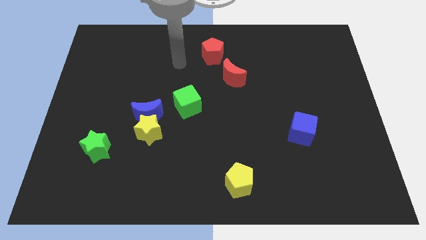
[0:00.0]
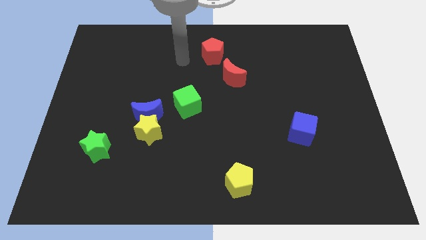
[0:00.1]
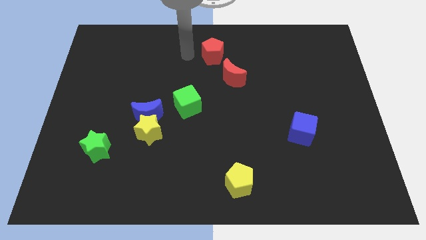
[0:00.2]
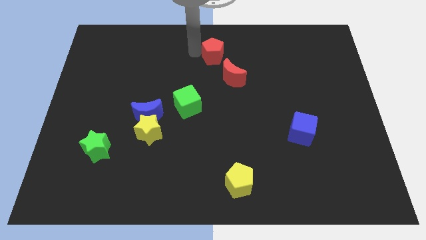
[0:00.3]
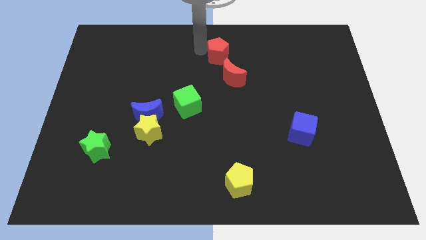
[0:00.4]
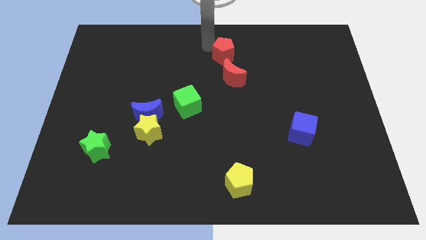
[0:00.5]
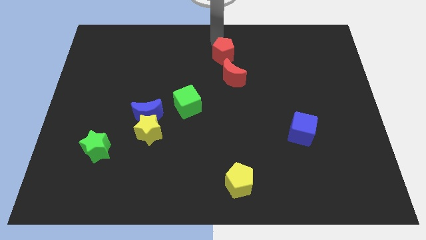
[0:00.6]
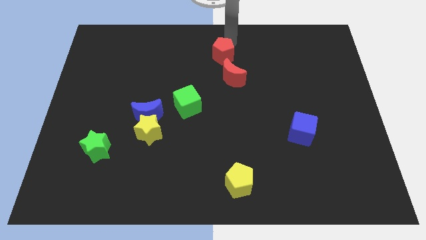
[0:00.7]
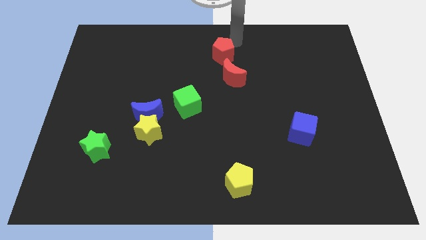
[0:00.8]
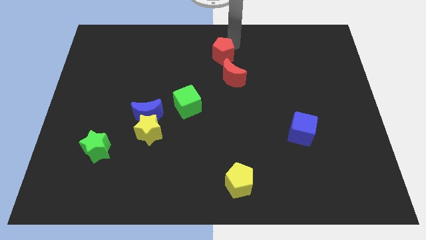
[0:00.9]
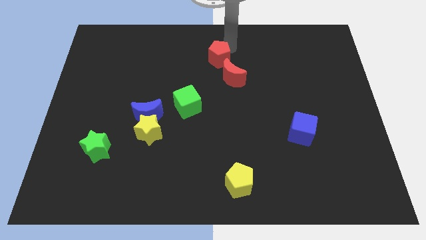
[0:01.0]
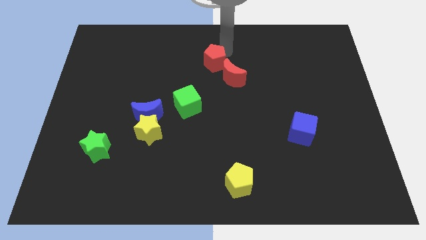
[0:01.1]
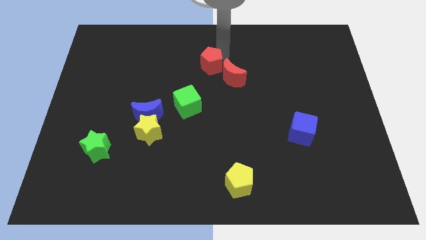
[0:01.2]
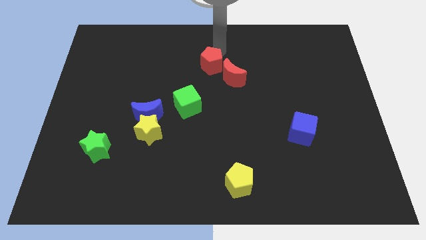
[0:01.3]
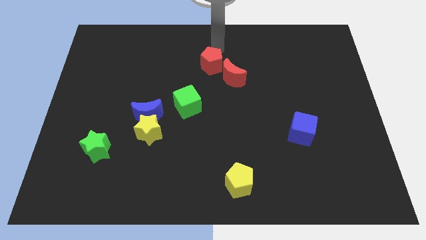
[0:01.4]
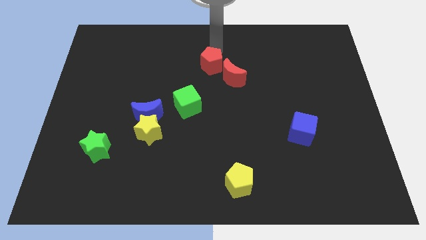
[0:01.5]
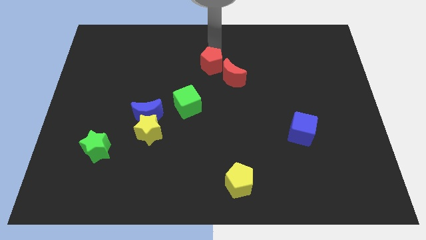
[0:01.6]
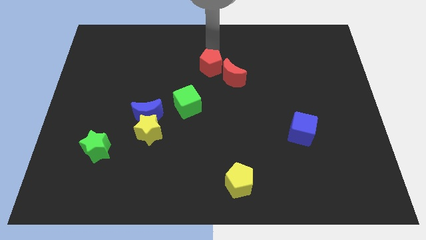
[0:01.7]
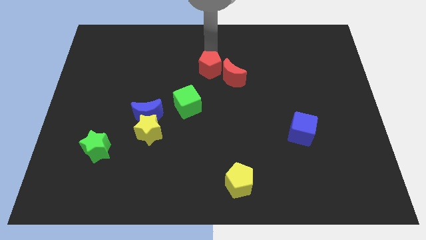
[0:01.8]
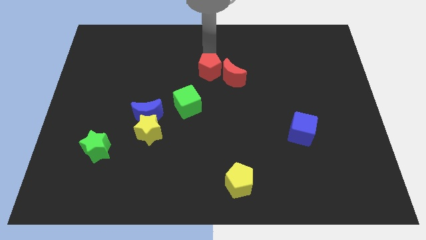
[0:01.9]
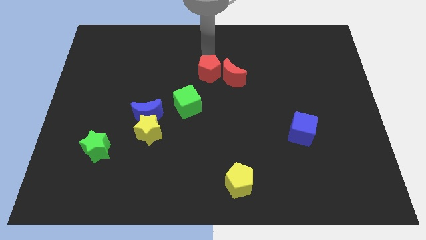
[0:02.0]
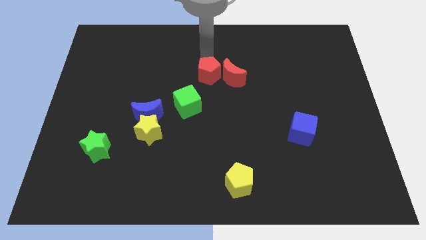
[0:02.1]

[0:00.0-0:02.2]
slide the red pentagon a little down

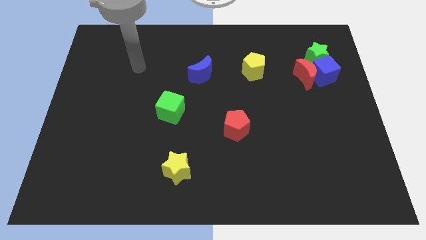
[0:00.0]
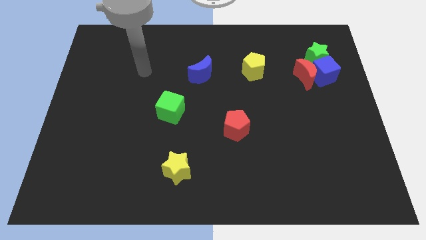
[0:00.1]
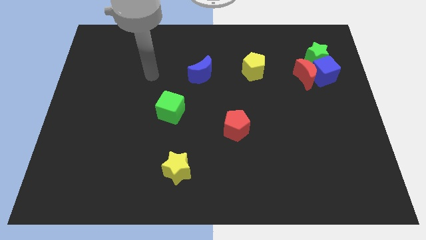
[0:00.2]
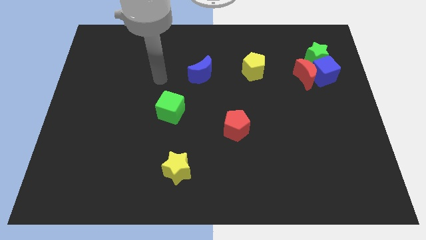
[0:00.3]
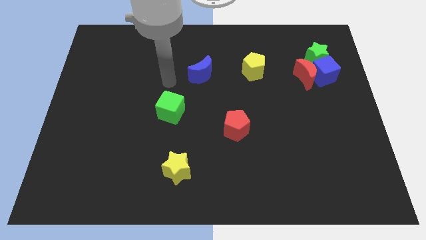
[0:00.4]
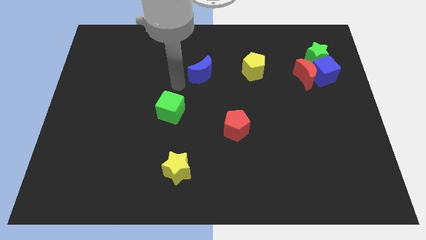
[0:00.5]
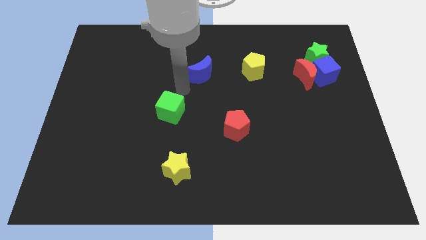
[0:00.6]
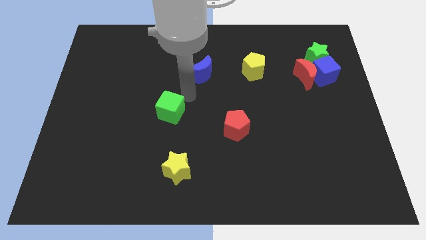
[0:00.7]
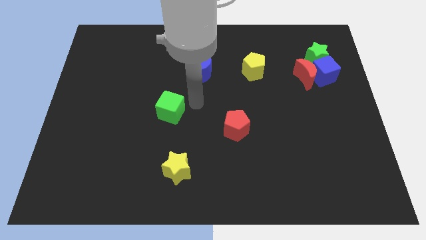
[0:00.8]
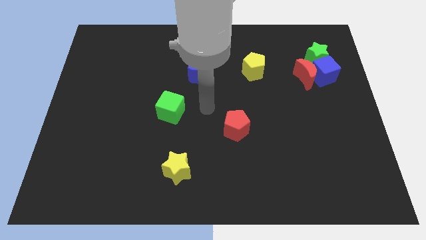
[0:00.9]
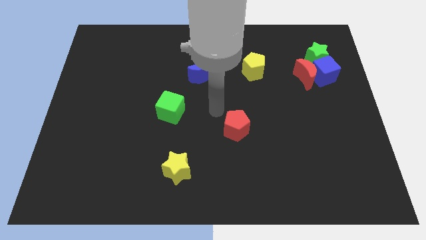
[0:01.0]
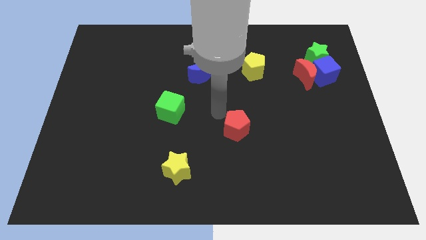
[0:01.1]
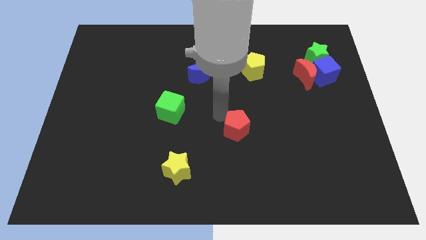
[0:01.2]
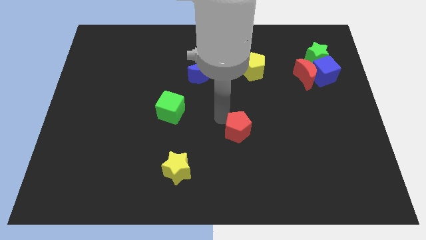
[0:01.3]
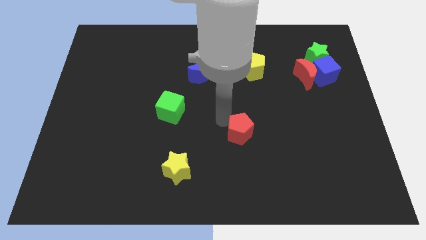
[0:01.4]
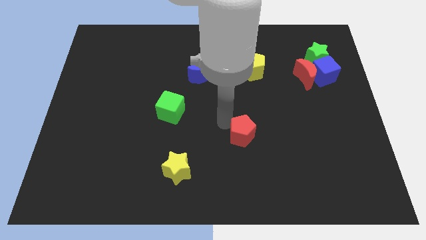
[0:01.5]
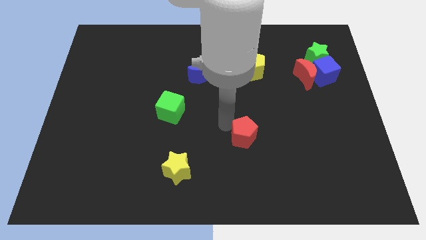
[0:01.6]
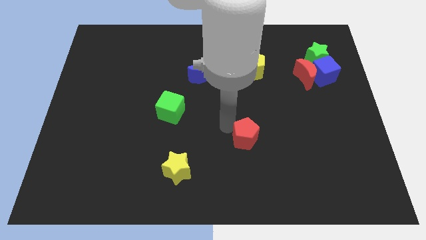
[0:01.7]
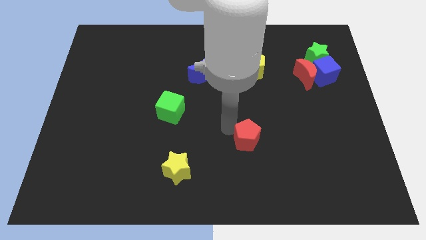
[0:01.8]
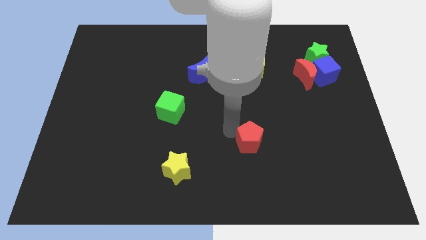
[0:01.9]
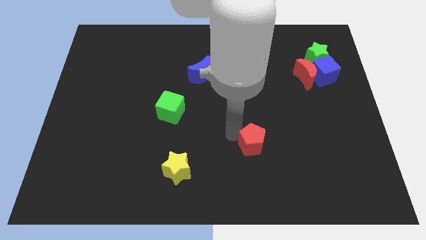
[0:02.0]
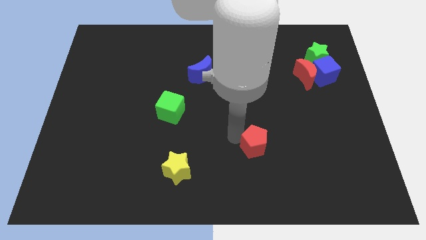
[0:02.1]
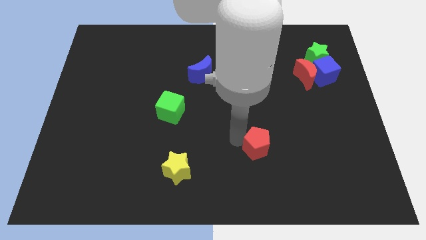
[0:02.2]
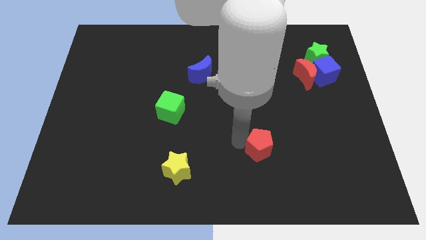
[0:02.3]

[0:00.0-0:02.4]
move the red pentagon a bit diagonally down and right

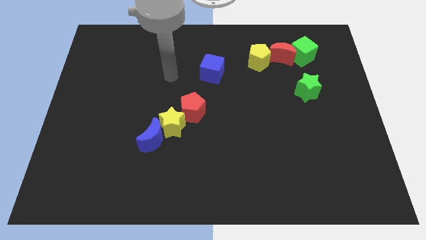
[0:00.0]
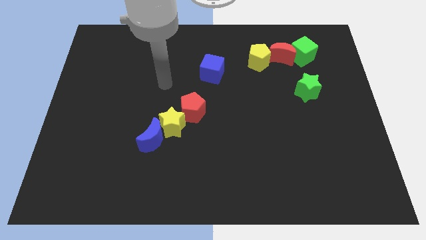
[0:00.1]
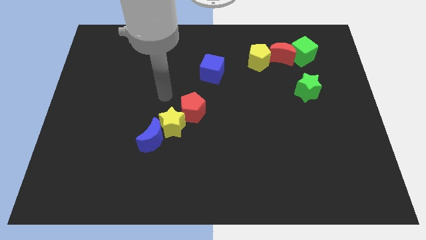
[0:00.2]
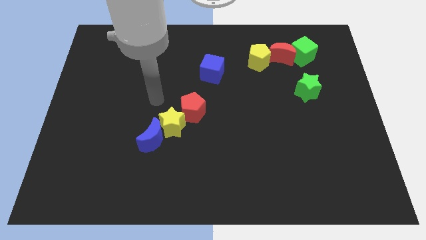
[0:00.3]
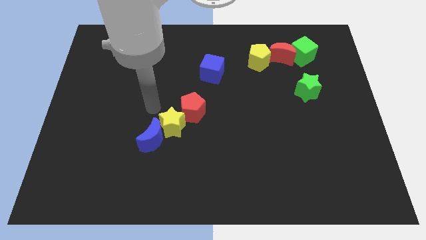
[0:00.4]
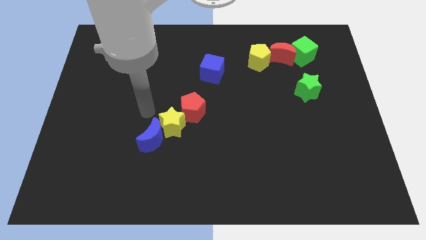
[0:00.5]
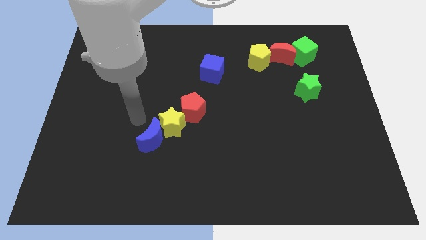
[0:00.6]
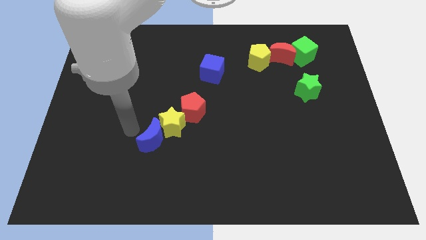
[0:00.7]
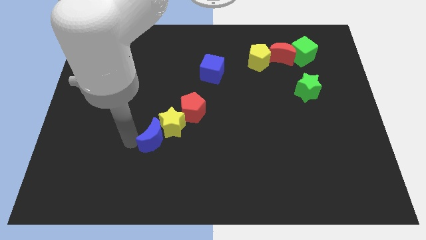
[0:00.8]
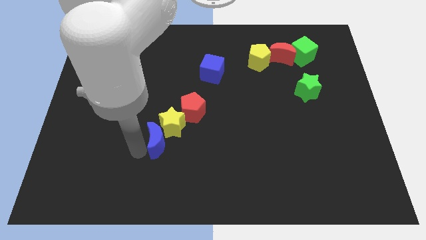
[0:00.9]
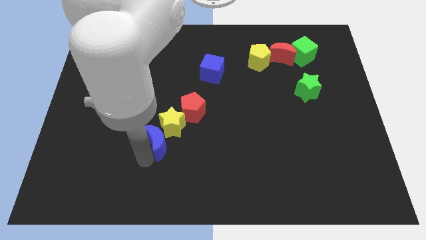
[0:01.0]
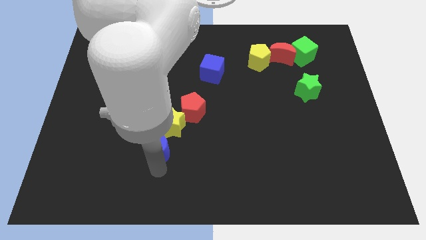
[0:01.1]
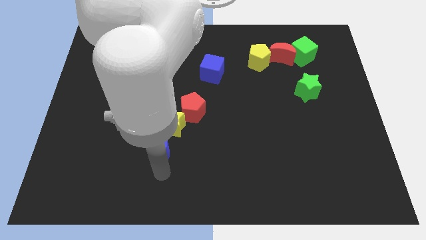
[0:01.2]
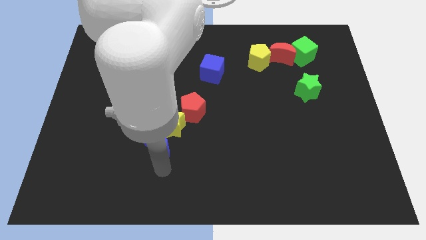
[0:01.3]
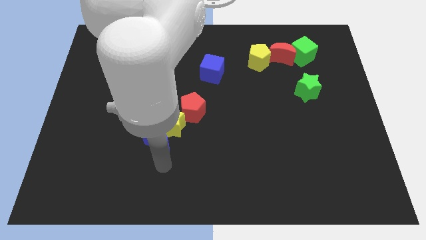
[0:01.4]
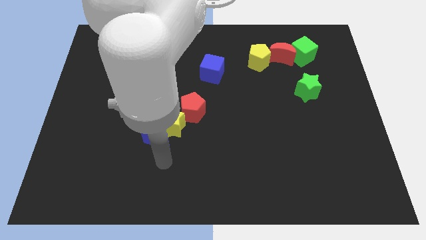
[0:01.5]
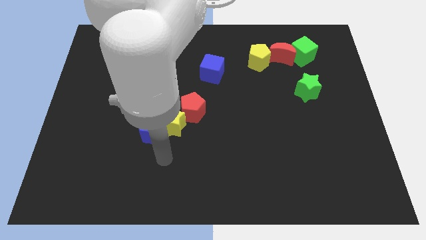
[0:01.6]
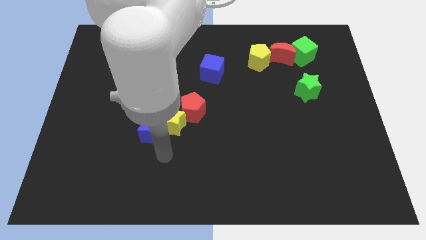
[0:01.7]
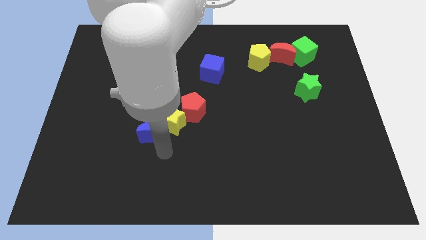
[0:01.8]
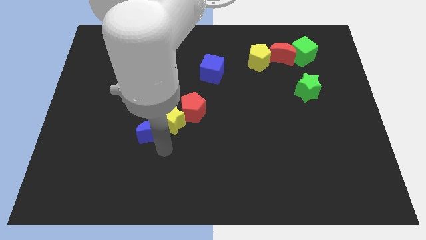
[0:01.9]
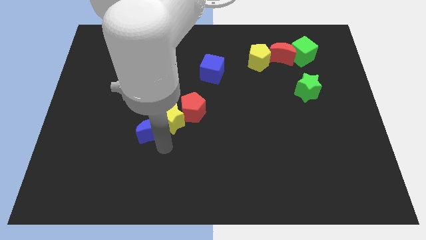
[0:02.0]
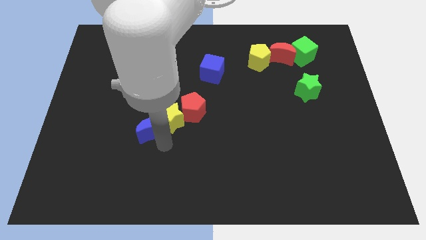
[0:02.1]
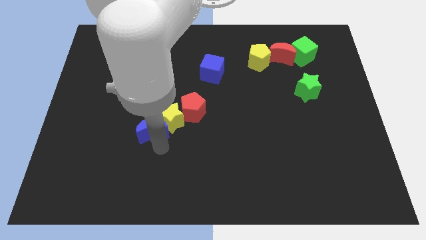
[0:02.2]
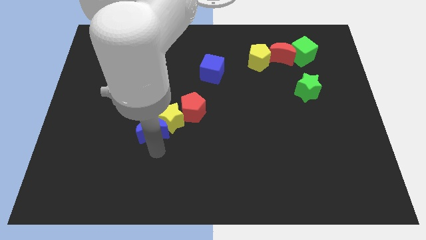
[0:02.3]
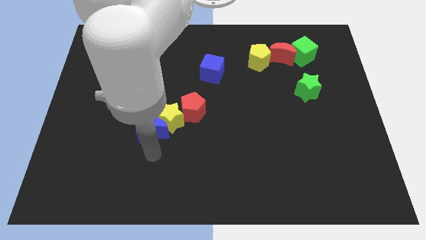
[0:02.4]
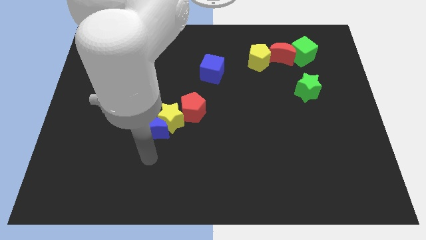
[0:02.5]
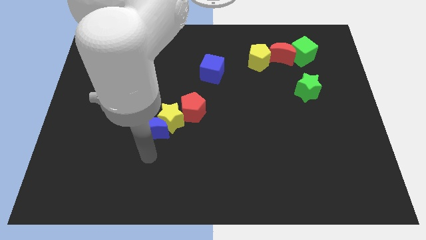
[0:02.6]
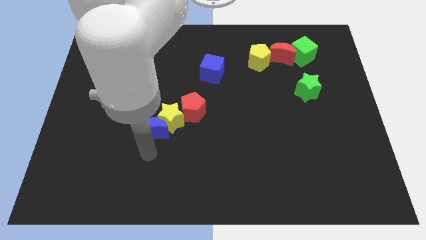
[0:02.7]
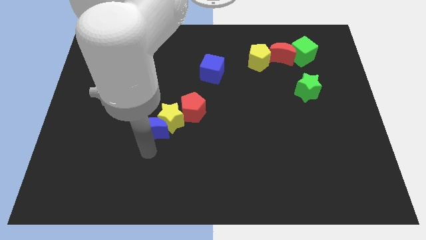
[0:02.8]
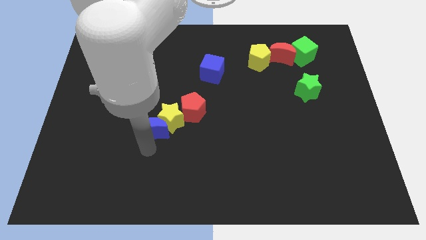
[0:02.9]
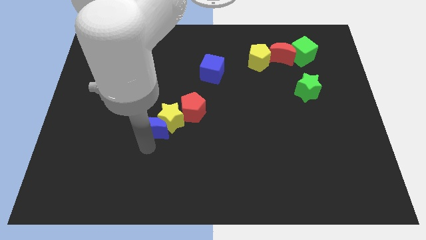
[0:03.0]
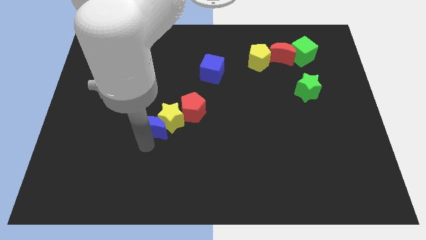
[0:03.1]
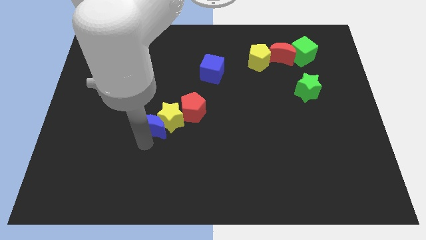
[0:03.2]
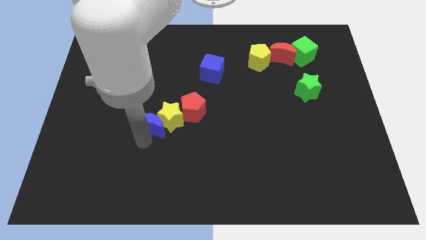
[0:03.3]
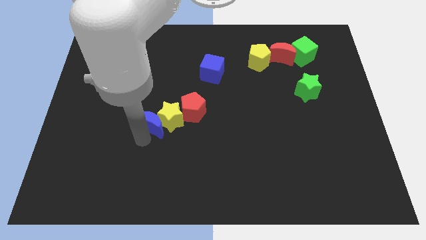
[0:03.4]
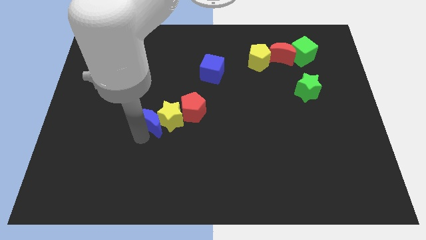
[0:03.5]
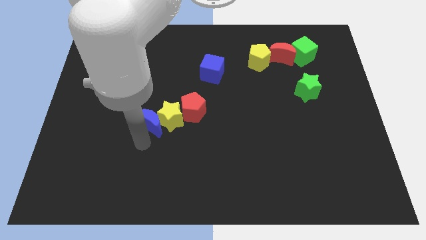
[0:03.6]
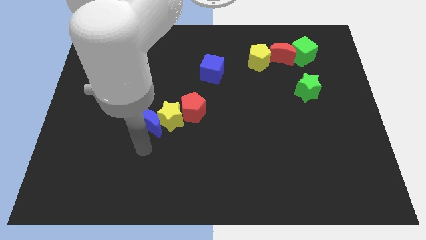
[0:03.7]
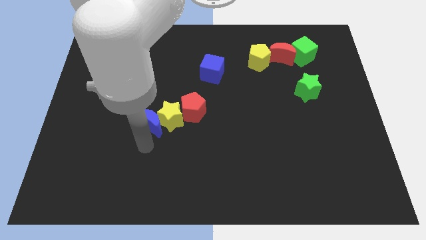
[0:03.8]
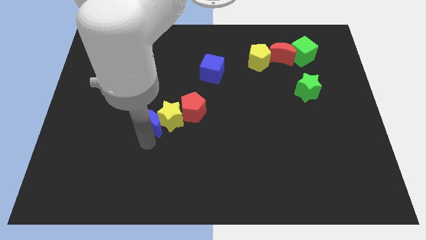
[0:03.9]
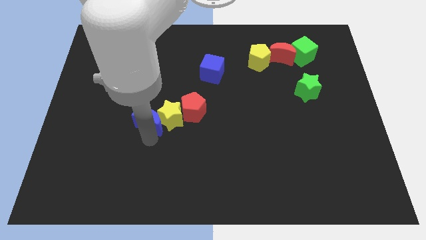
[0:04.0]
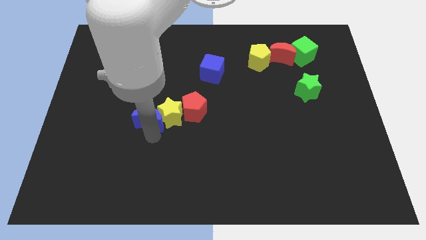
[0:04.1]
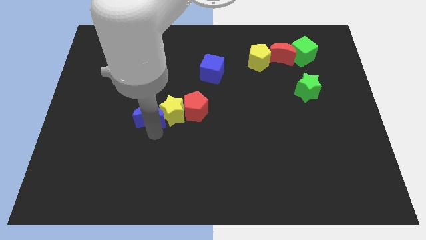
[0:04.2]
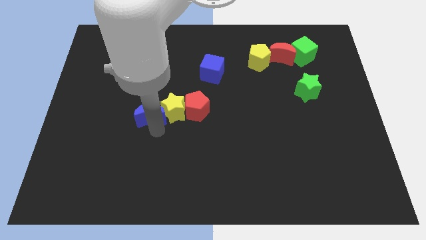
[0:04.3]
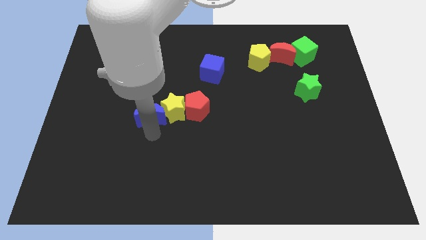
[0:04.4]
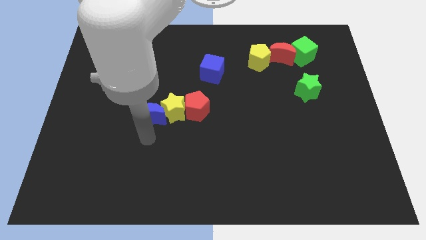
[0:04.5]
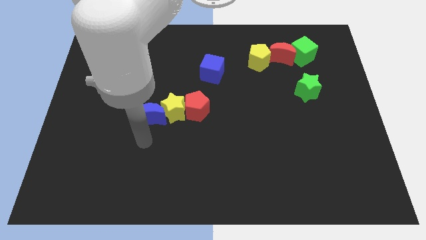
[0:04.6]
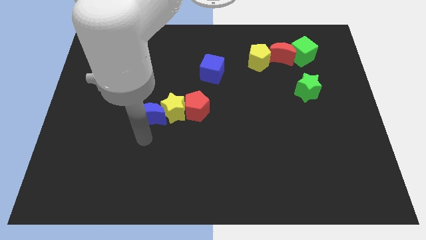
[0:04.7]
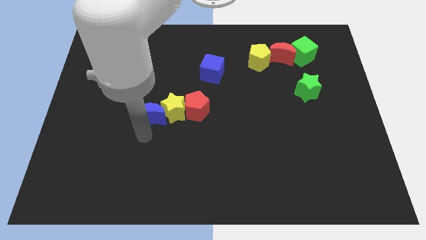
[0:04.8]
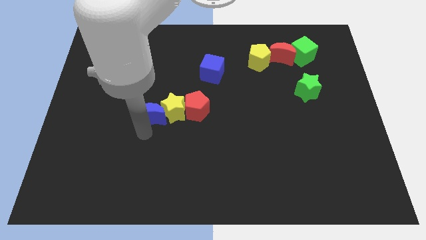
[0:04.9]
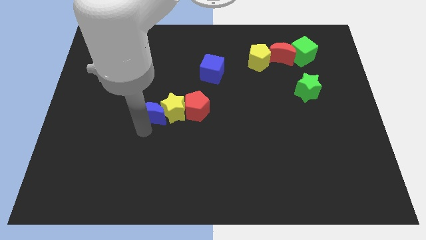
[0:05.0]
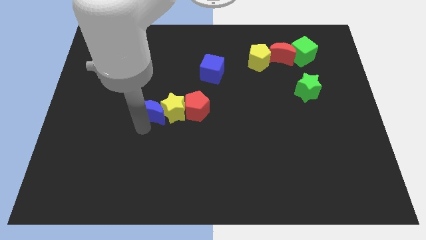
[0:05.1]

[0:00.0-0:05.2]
slide the blue moon slightly up
